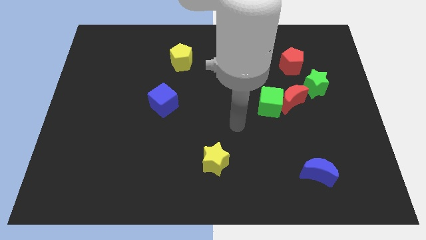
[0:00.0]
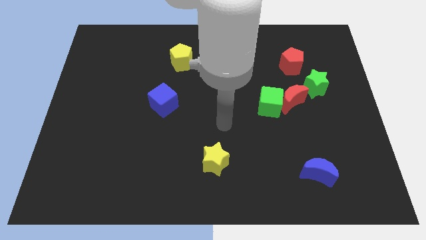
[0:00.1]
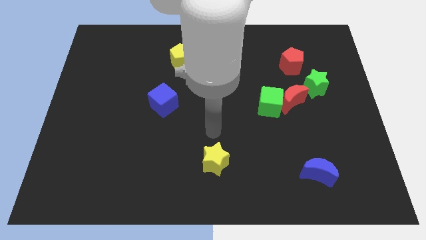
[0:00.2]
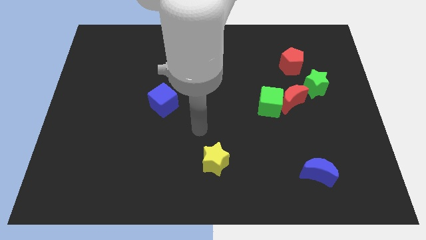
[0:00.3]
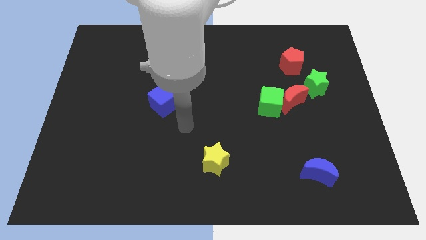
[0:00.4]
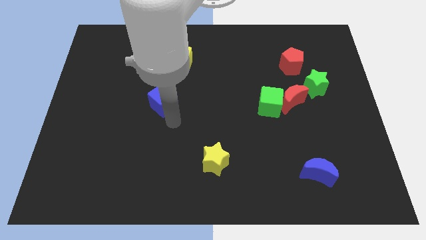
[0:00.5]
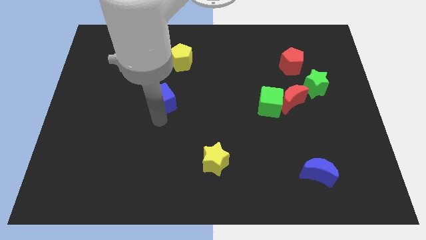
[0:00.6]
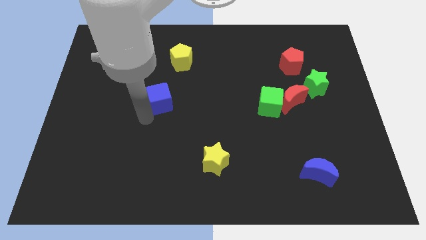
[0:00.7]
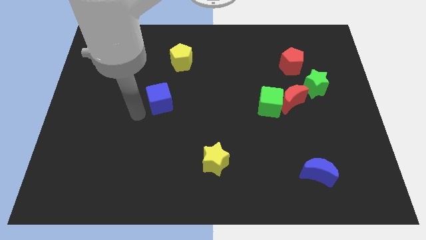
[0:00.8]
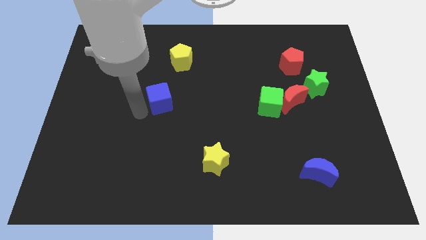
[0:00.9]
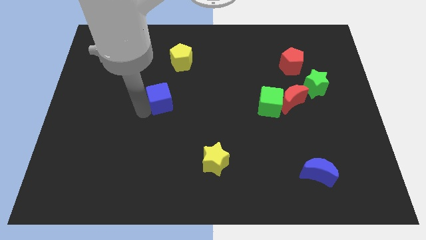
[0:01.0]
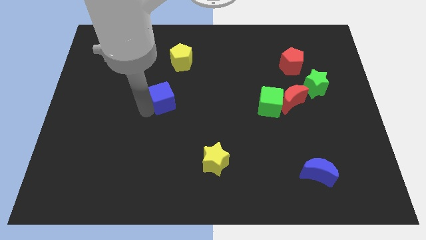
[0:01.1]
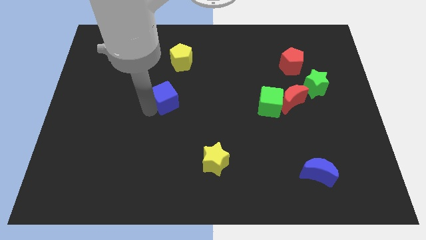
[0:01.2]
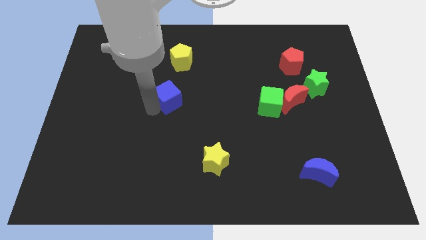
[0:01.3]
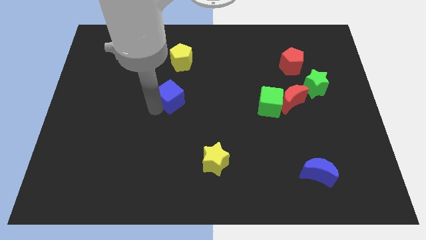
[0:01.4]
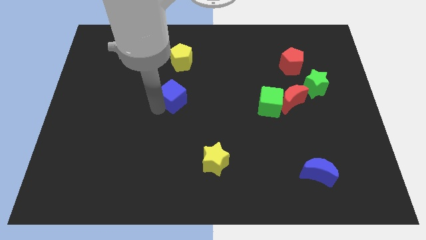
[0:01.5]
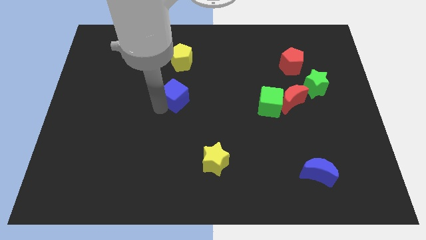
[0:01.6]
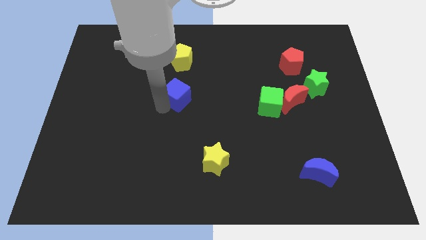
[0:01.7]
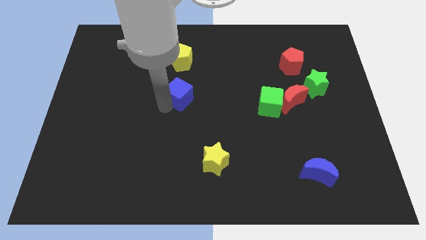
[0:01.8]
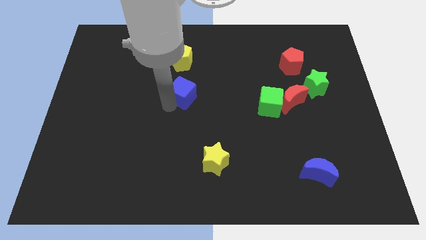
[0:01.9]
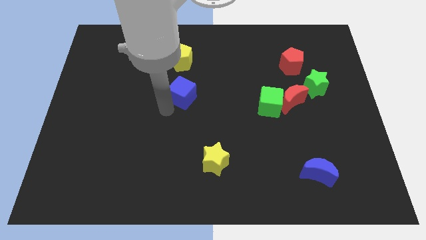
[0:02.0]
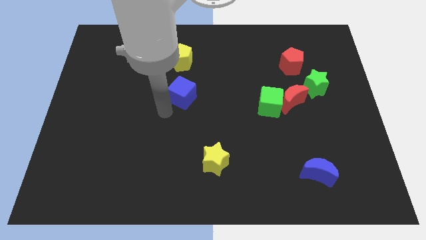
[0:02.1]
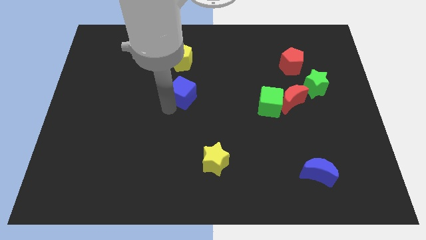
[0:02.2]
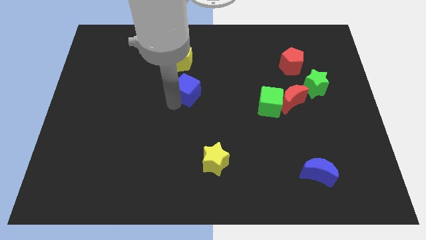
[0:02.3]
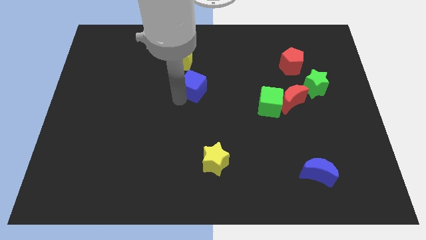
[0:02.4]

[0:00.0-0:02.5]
push the blue cube diagonally upwards and right slightly

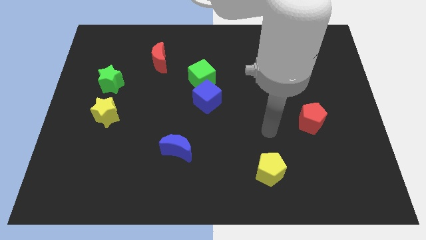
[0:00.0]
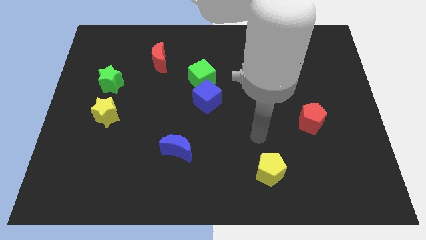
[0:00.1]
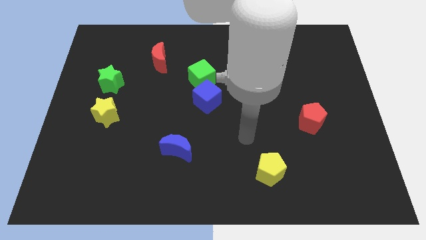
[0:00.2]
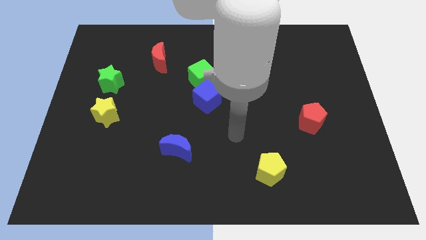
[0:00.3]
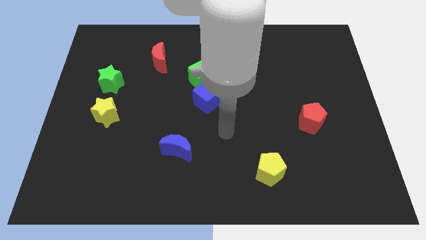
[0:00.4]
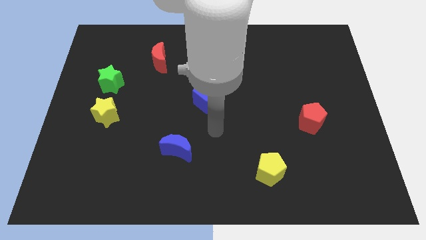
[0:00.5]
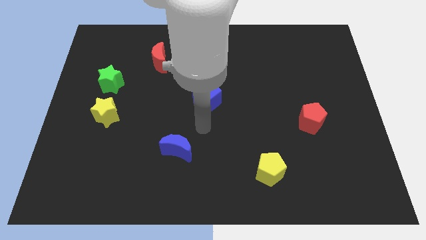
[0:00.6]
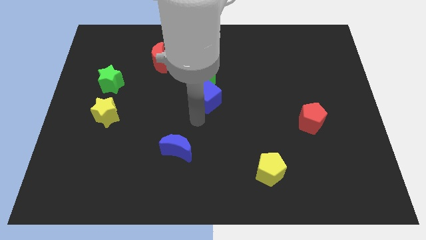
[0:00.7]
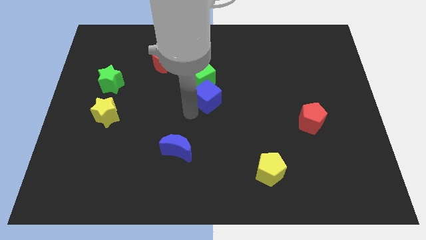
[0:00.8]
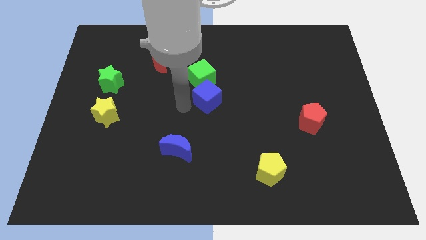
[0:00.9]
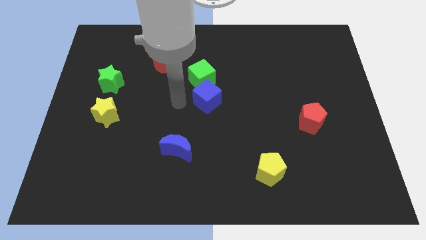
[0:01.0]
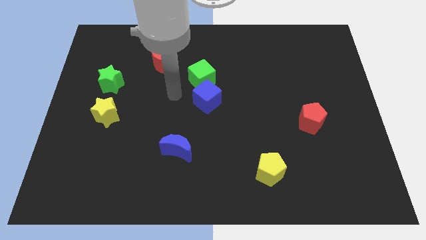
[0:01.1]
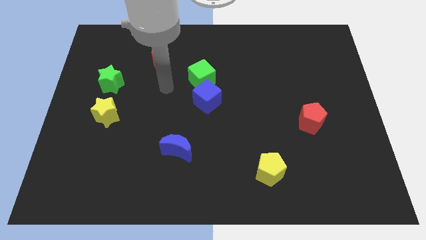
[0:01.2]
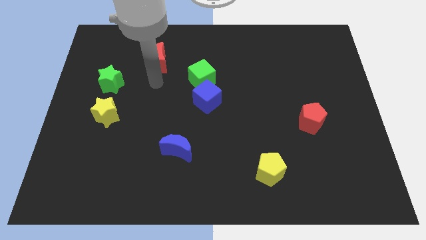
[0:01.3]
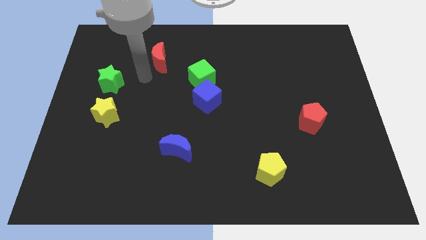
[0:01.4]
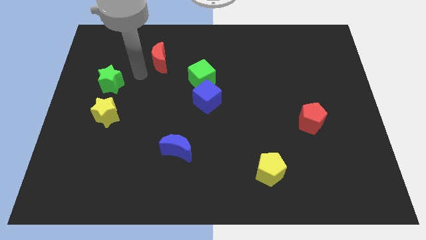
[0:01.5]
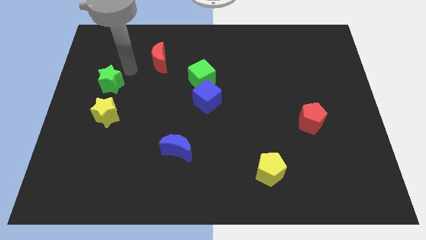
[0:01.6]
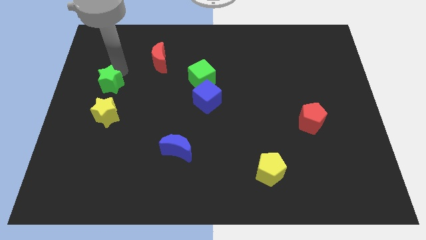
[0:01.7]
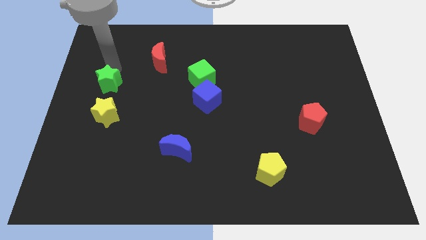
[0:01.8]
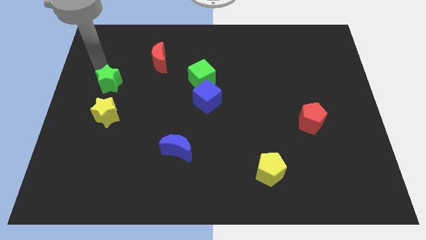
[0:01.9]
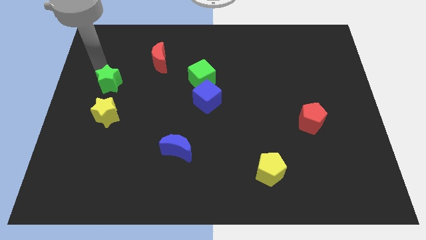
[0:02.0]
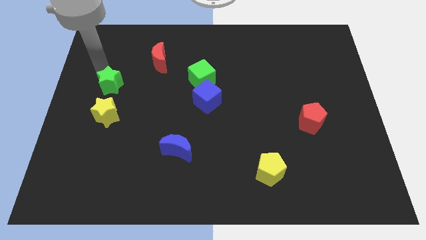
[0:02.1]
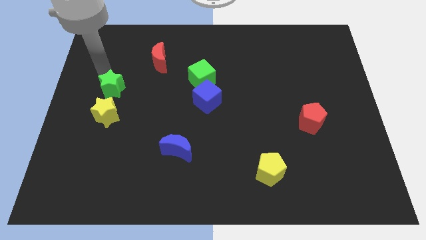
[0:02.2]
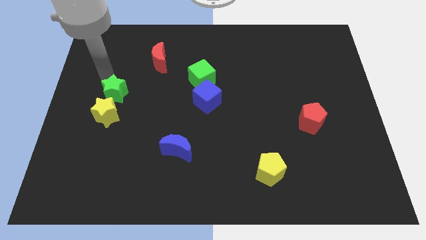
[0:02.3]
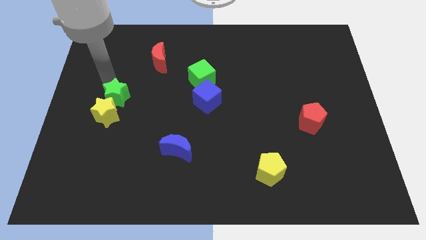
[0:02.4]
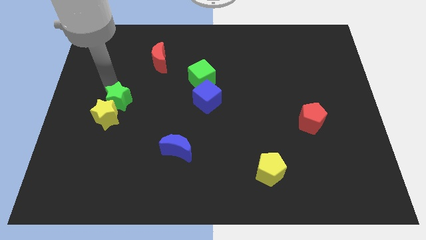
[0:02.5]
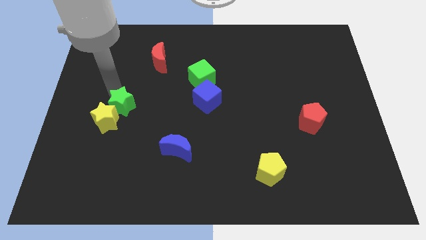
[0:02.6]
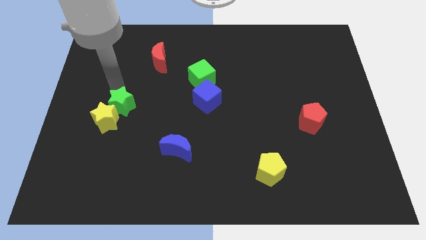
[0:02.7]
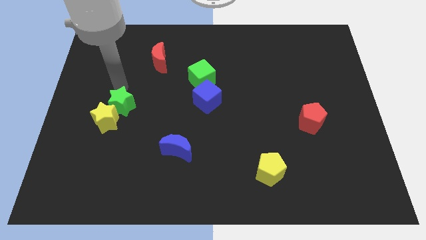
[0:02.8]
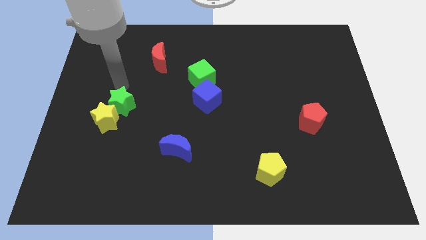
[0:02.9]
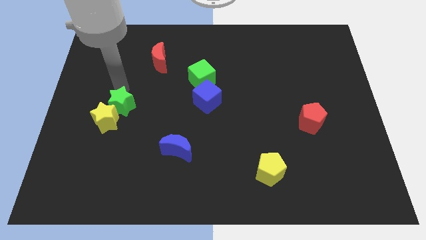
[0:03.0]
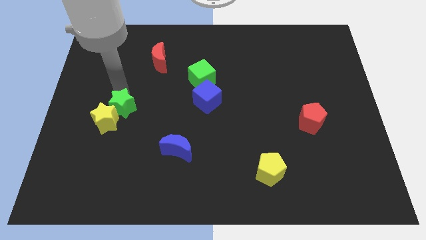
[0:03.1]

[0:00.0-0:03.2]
slightly push the green star downwards

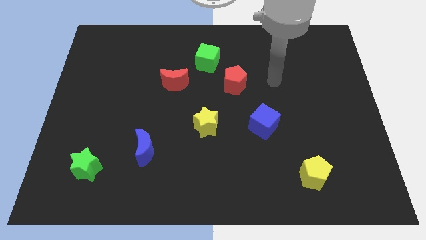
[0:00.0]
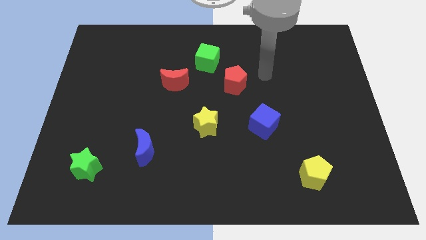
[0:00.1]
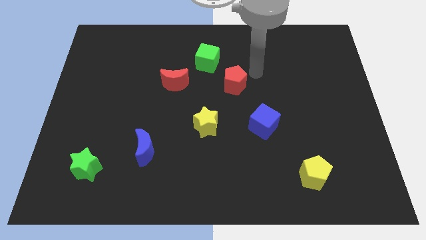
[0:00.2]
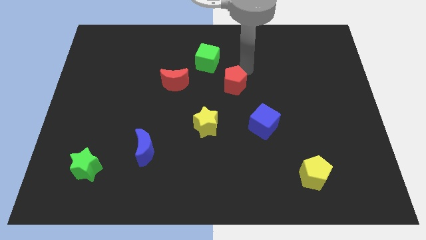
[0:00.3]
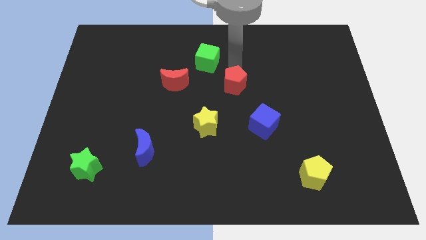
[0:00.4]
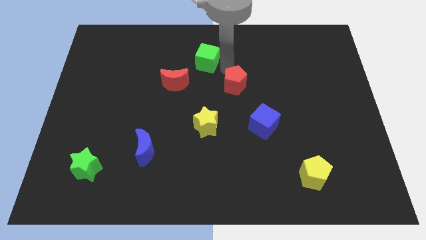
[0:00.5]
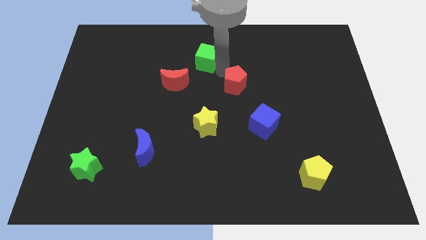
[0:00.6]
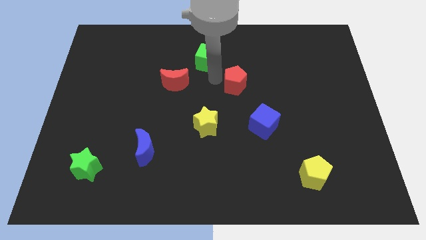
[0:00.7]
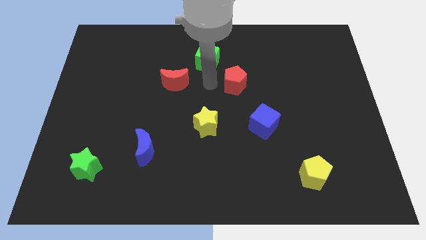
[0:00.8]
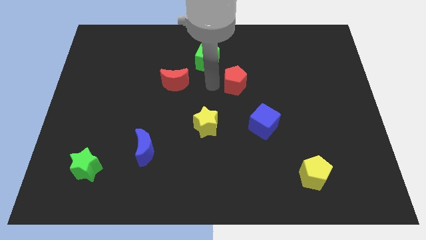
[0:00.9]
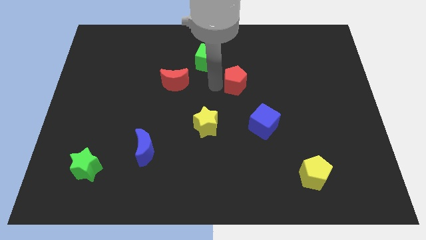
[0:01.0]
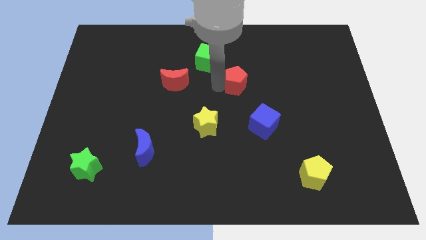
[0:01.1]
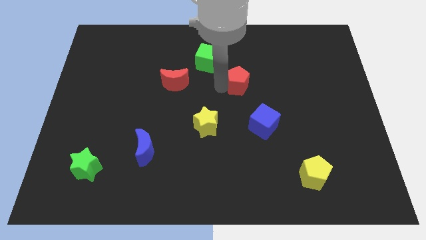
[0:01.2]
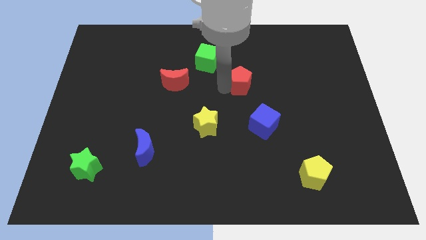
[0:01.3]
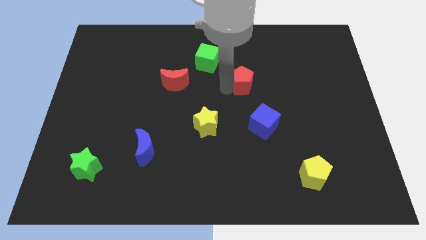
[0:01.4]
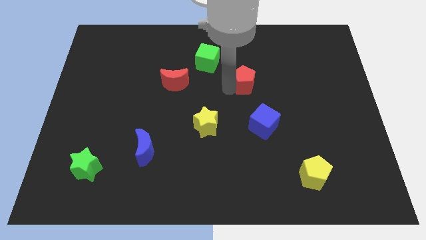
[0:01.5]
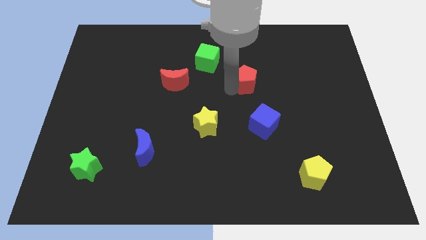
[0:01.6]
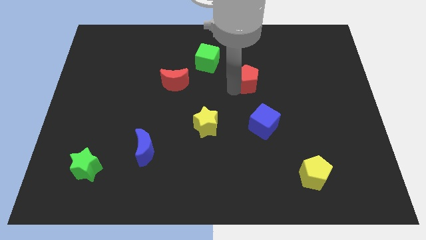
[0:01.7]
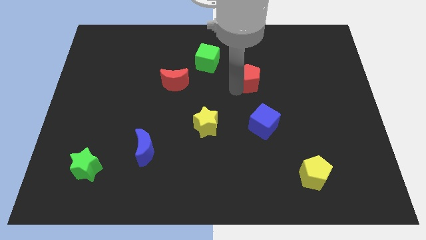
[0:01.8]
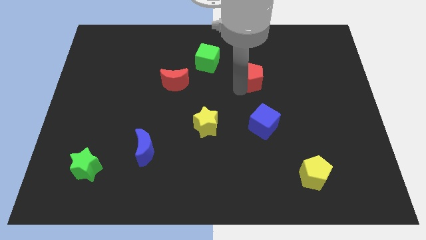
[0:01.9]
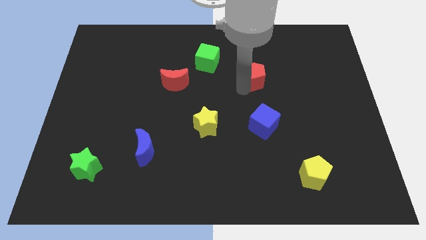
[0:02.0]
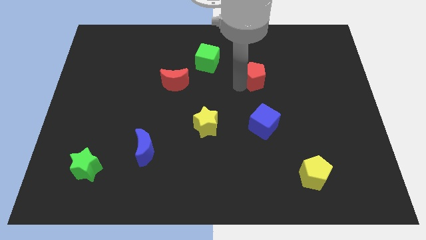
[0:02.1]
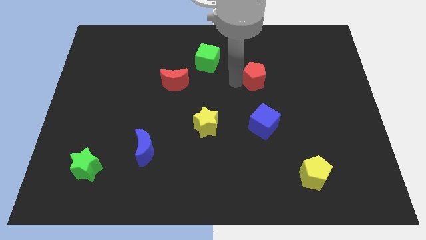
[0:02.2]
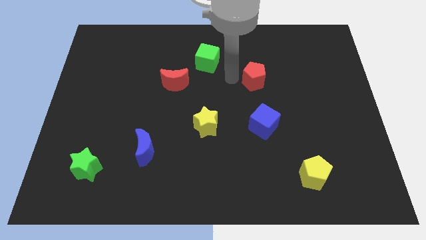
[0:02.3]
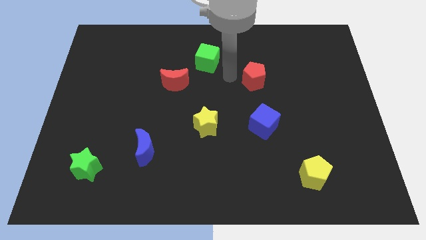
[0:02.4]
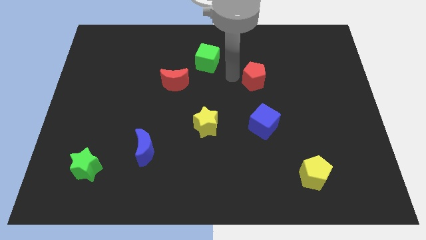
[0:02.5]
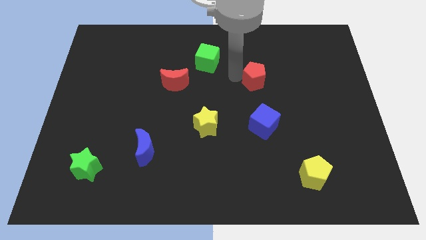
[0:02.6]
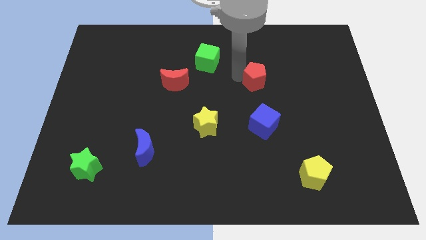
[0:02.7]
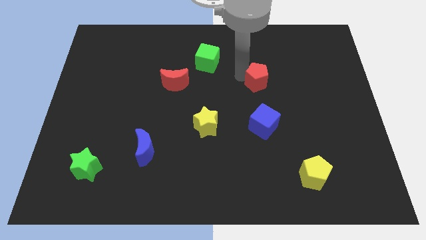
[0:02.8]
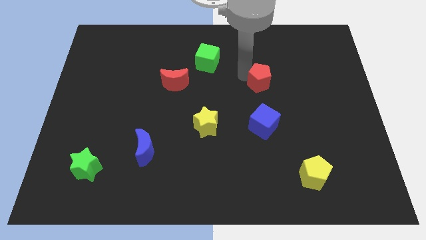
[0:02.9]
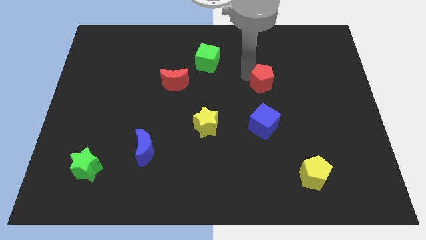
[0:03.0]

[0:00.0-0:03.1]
push the red pentagon to the right somewhat
